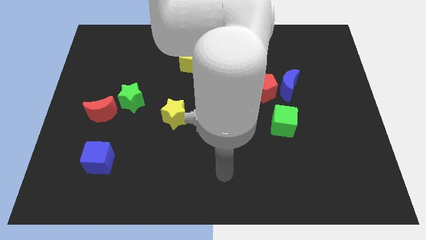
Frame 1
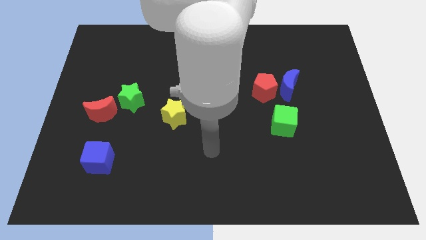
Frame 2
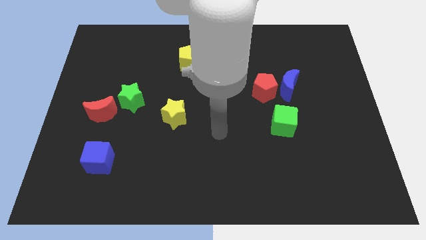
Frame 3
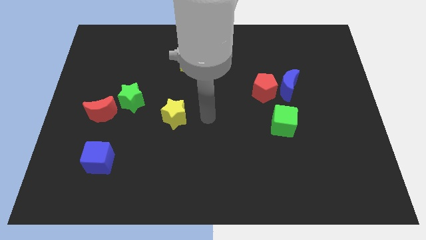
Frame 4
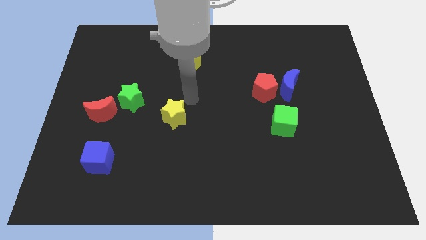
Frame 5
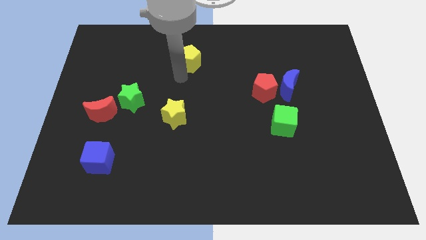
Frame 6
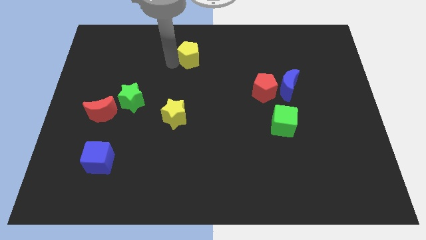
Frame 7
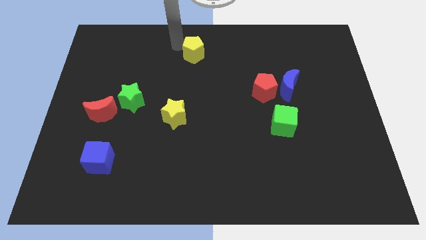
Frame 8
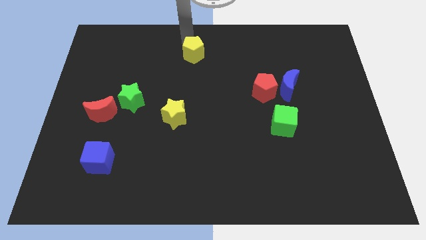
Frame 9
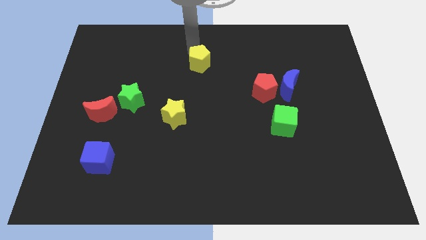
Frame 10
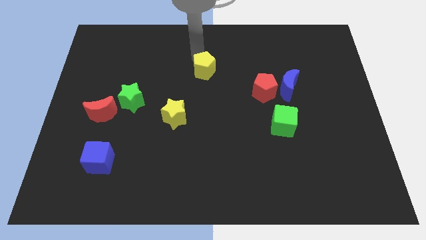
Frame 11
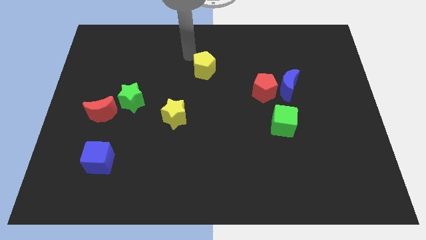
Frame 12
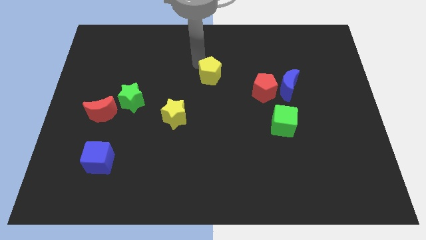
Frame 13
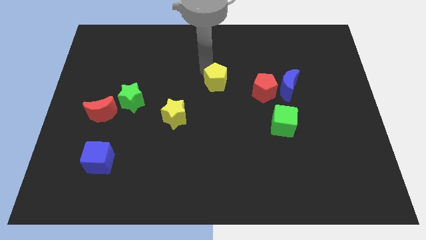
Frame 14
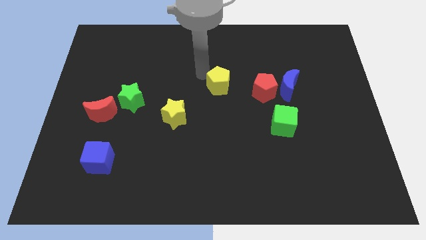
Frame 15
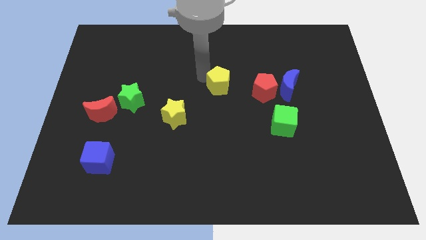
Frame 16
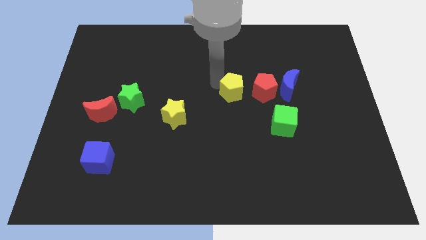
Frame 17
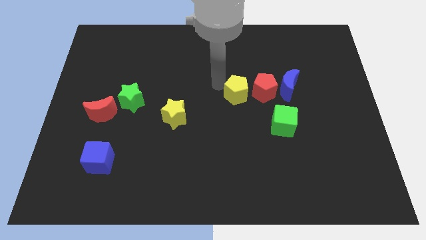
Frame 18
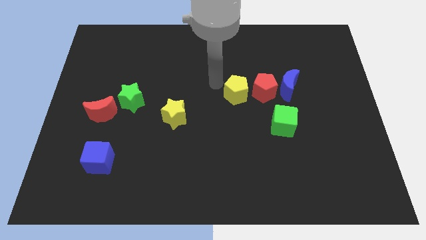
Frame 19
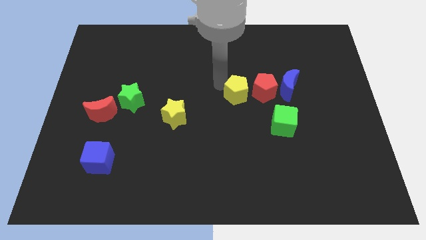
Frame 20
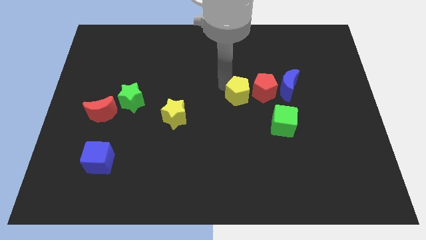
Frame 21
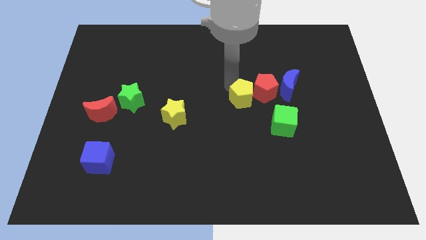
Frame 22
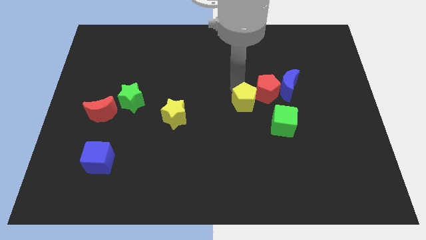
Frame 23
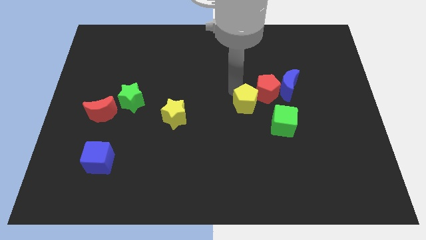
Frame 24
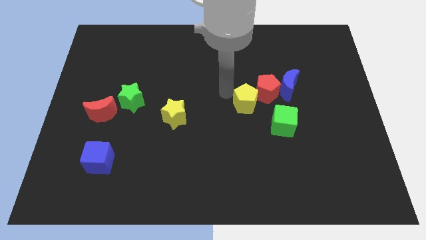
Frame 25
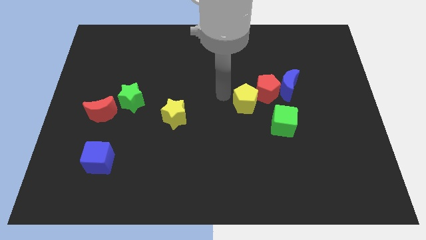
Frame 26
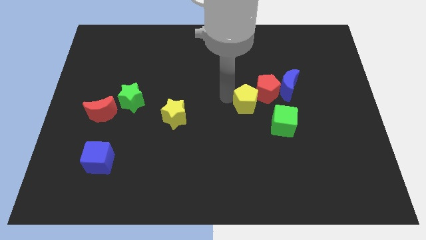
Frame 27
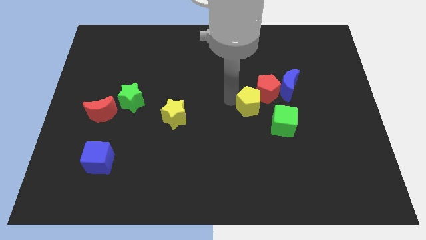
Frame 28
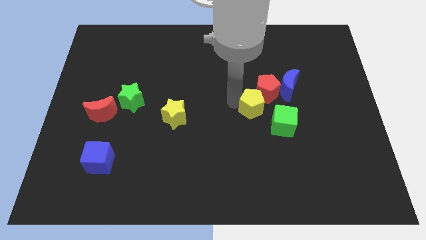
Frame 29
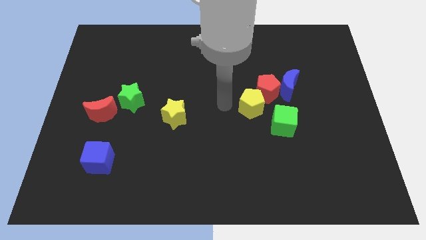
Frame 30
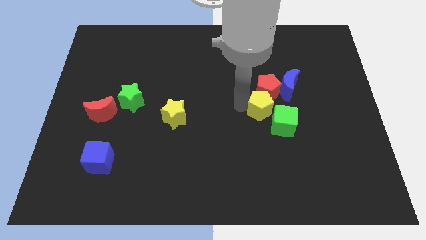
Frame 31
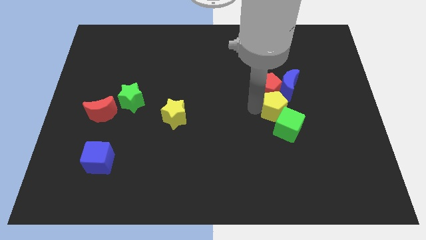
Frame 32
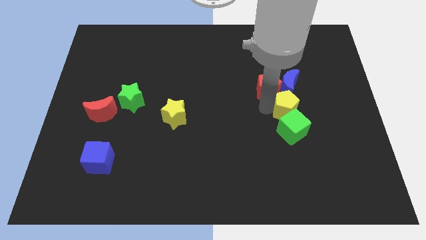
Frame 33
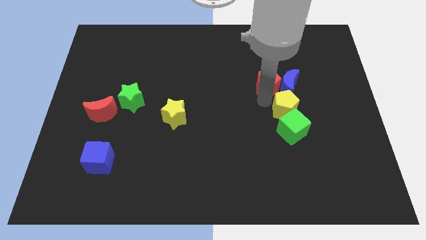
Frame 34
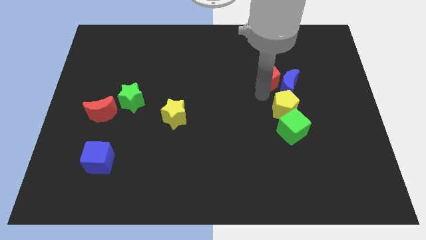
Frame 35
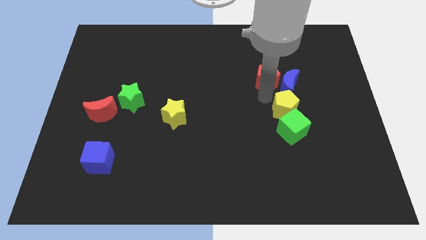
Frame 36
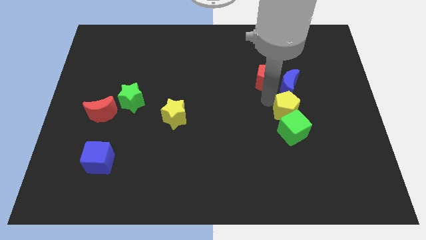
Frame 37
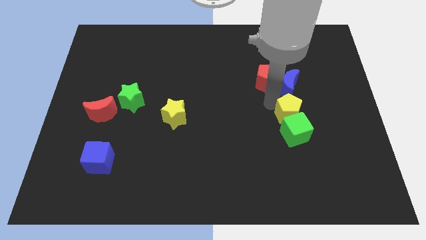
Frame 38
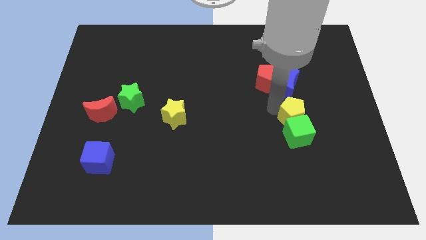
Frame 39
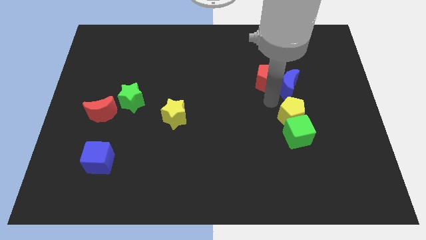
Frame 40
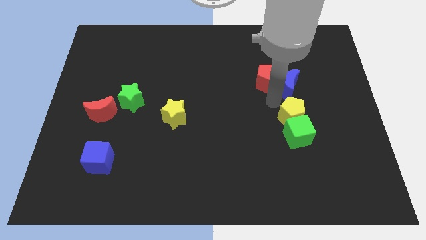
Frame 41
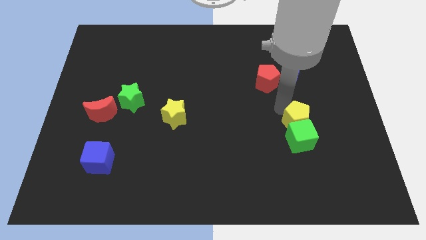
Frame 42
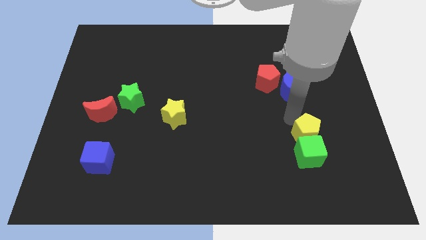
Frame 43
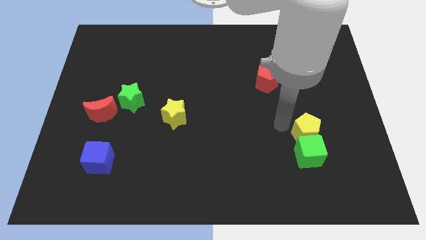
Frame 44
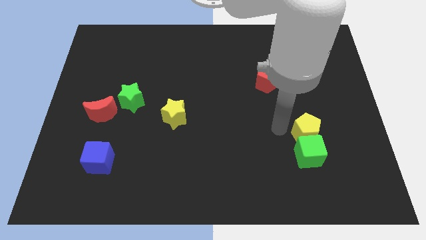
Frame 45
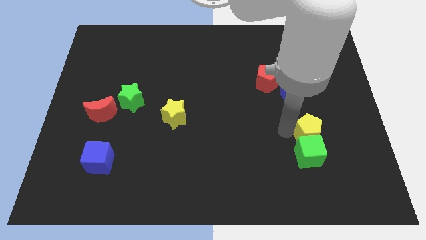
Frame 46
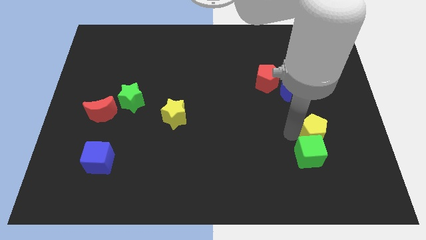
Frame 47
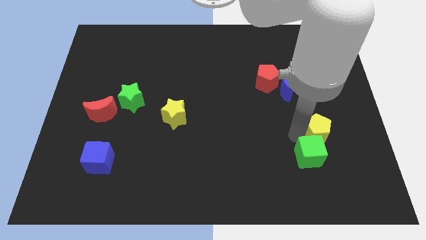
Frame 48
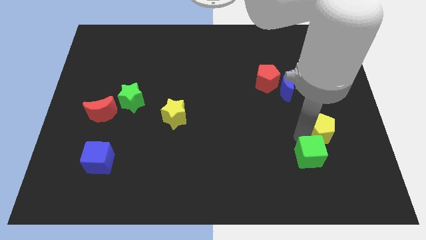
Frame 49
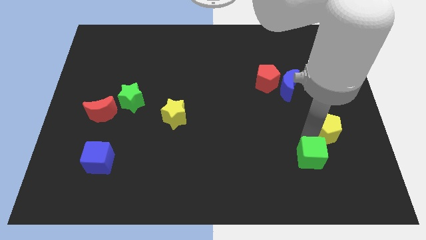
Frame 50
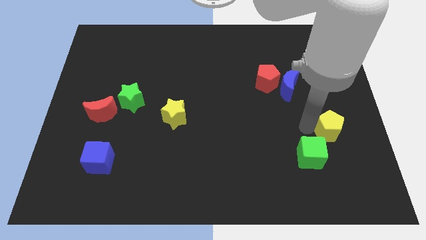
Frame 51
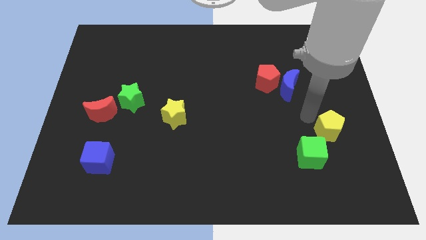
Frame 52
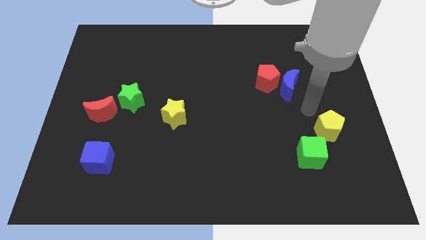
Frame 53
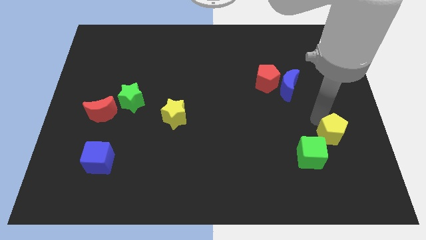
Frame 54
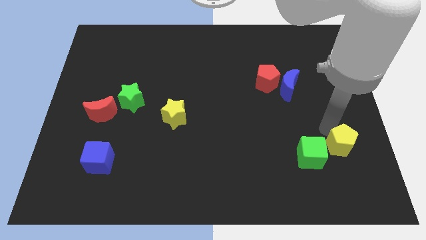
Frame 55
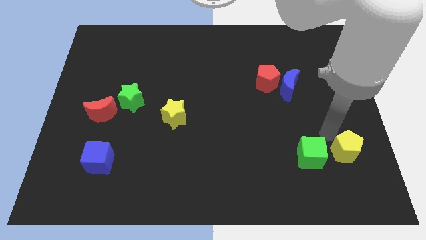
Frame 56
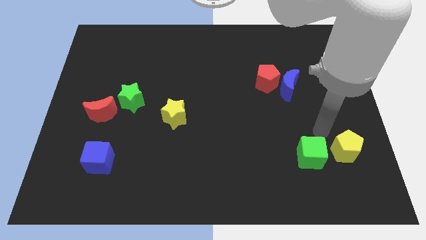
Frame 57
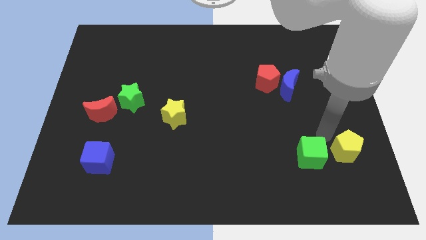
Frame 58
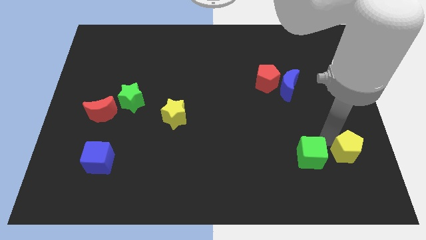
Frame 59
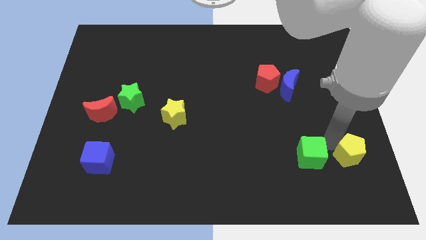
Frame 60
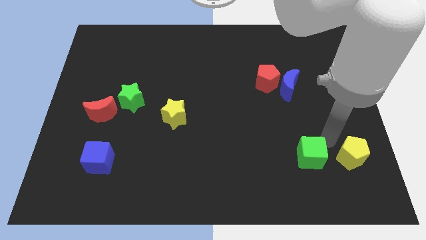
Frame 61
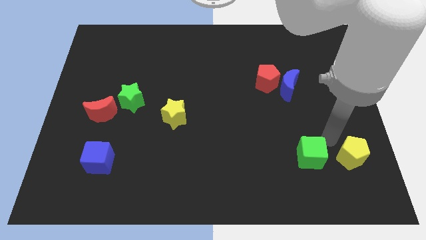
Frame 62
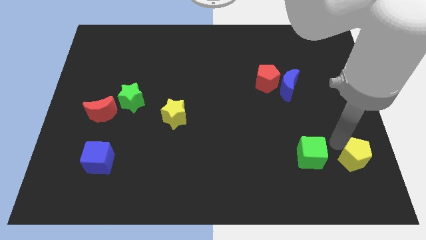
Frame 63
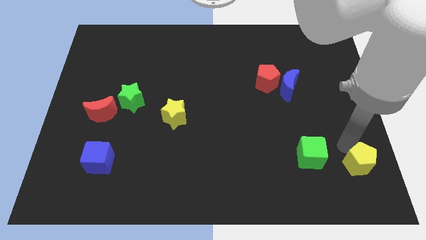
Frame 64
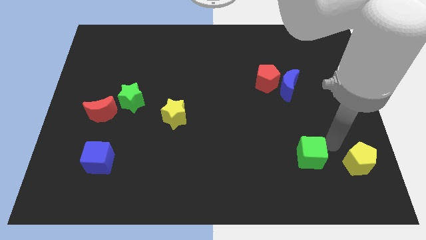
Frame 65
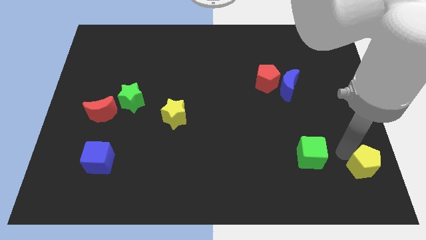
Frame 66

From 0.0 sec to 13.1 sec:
push the yellow pentagon to the bottom right corner
